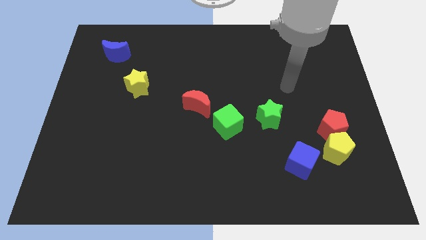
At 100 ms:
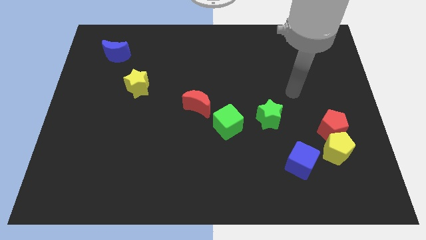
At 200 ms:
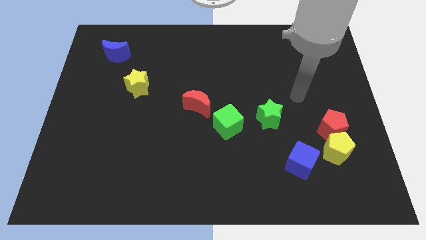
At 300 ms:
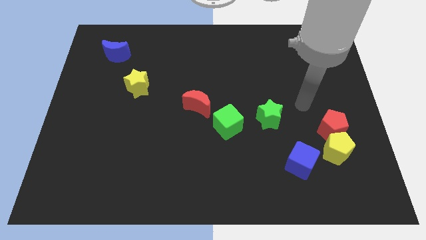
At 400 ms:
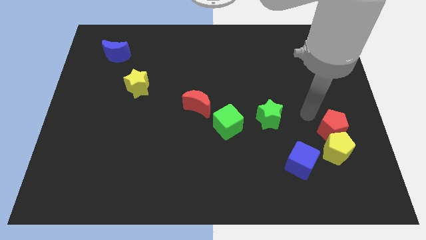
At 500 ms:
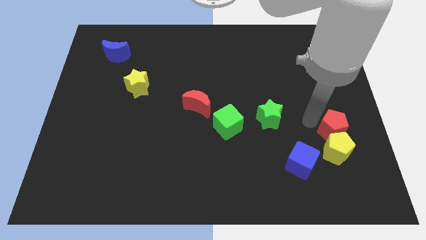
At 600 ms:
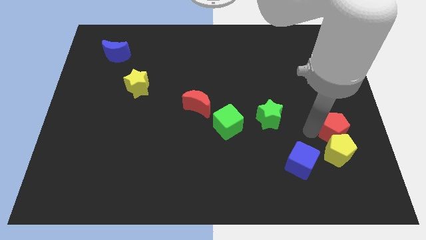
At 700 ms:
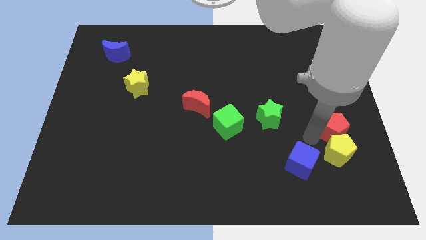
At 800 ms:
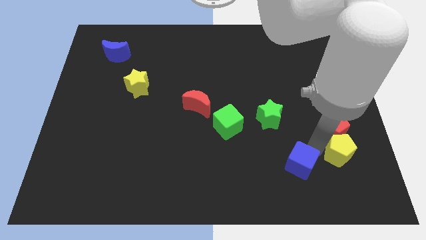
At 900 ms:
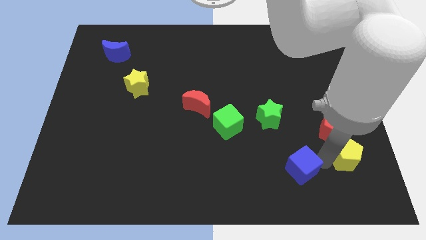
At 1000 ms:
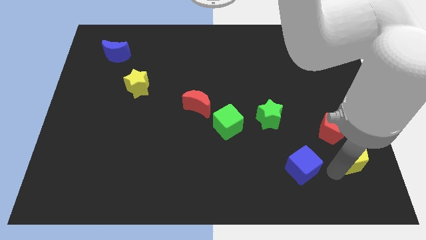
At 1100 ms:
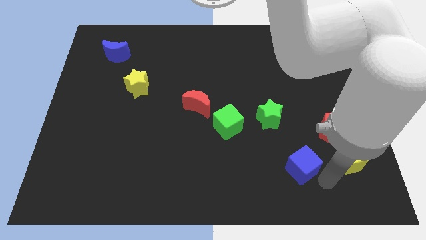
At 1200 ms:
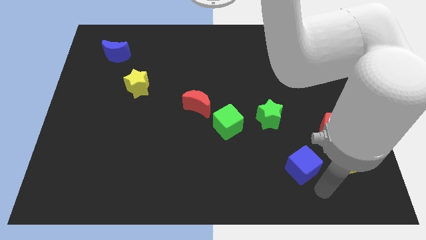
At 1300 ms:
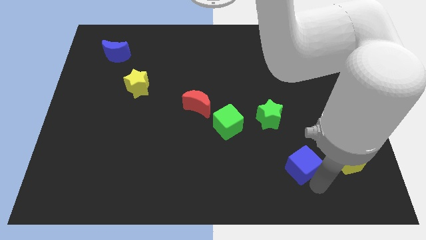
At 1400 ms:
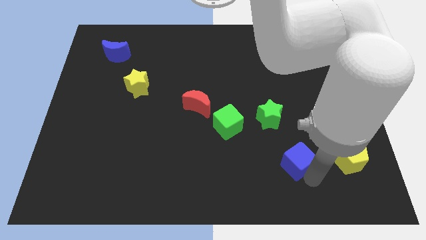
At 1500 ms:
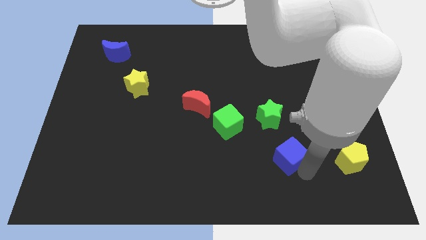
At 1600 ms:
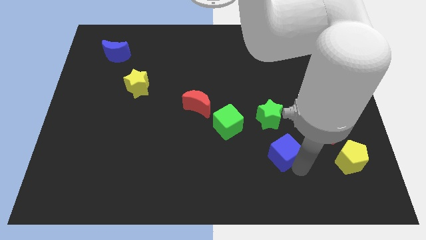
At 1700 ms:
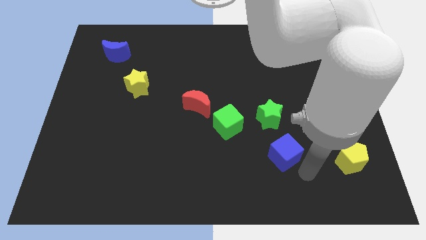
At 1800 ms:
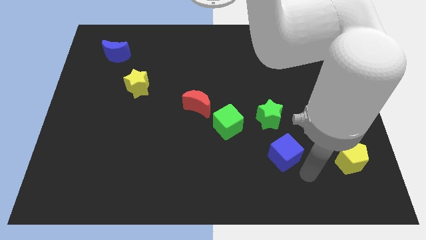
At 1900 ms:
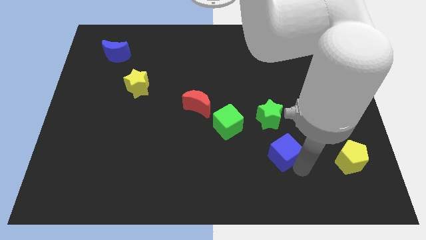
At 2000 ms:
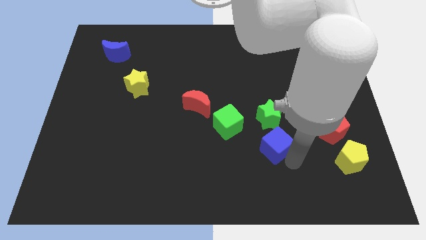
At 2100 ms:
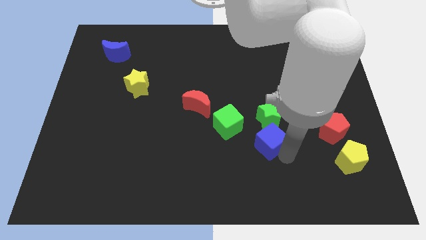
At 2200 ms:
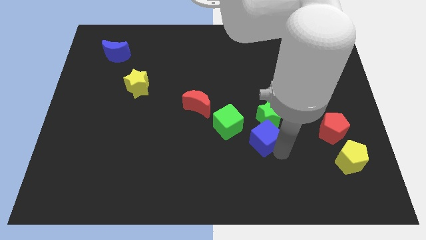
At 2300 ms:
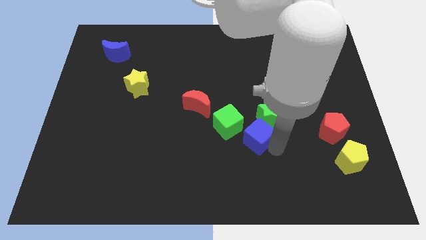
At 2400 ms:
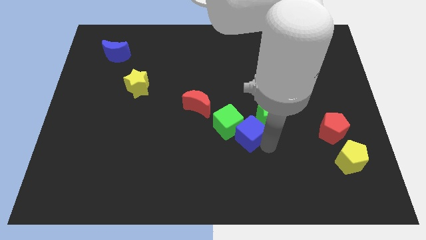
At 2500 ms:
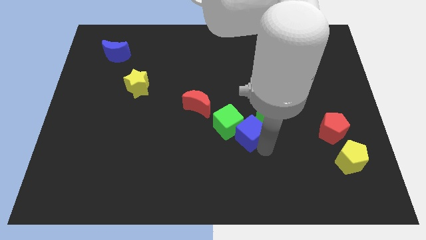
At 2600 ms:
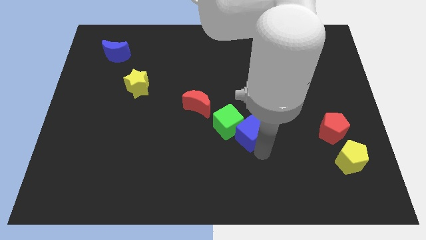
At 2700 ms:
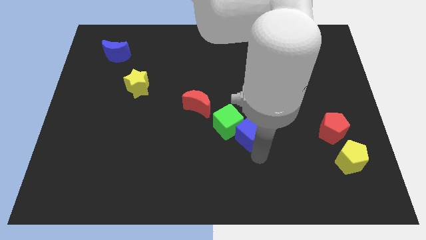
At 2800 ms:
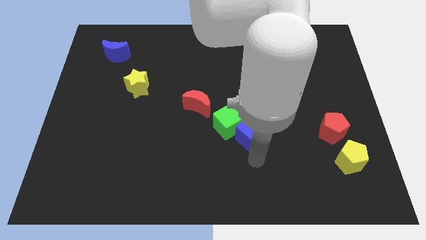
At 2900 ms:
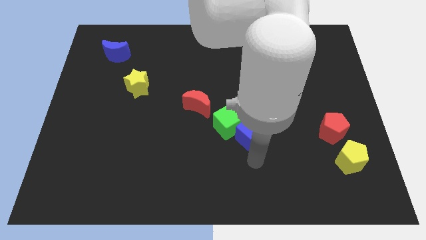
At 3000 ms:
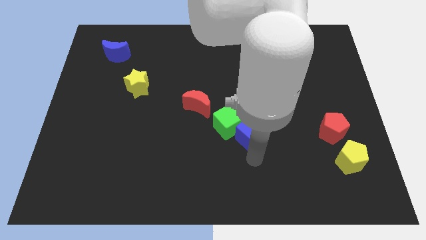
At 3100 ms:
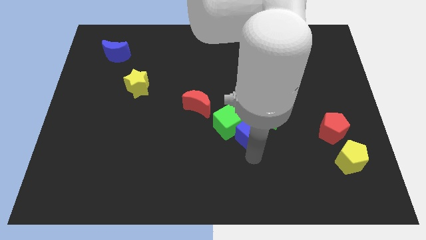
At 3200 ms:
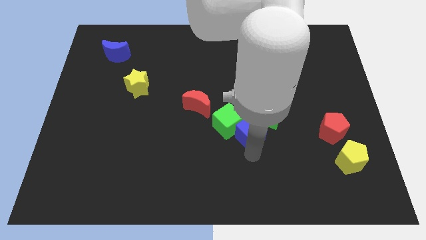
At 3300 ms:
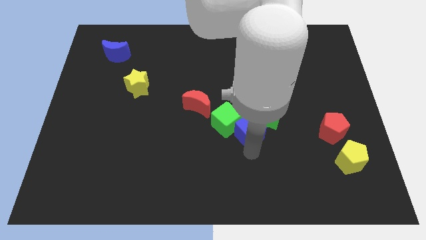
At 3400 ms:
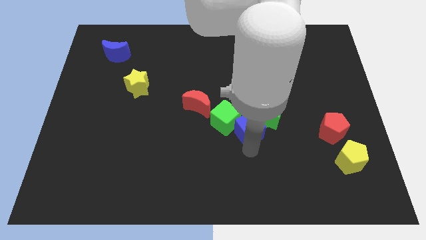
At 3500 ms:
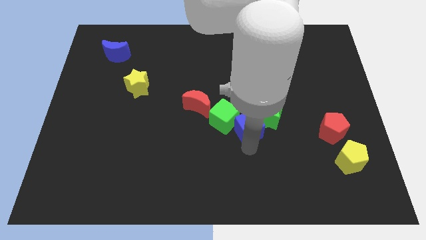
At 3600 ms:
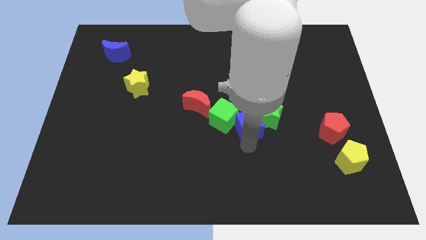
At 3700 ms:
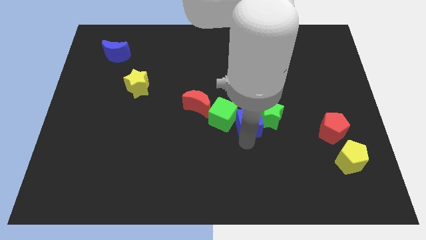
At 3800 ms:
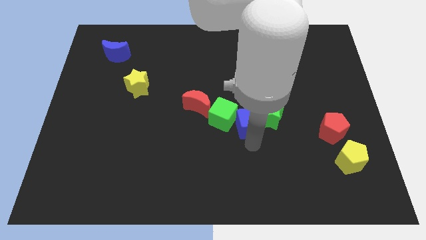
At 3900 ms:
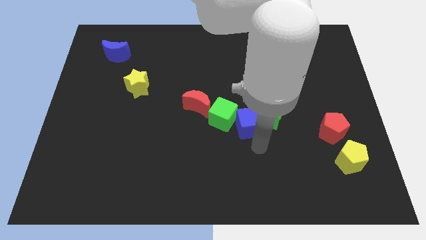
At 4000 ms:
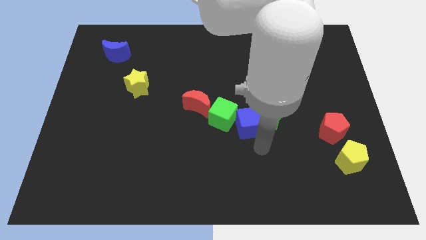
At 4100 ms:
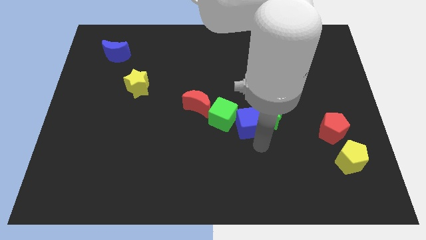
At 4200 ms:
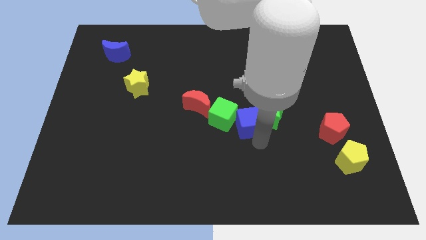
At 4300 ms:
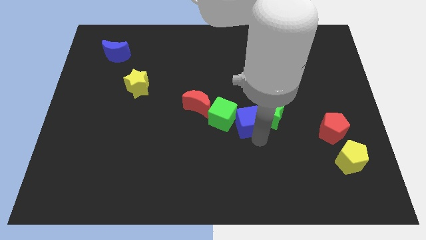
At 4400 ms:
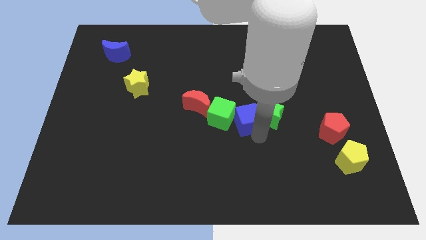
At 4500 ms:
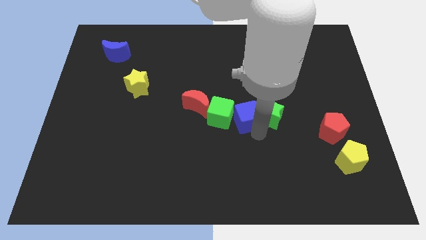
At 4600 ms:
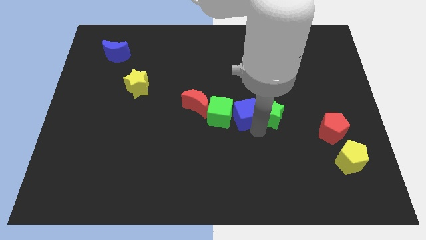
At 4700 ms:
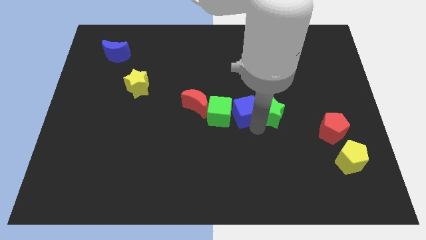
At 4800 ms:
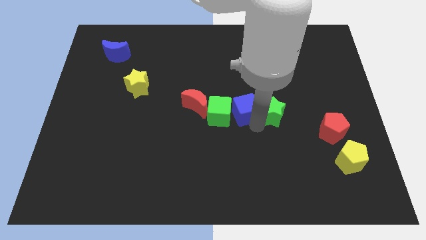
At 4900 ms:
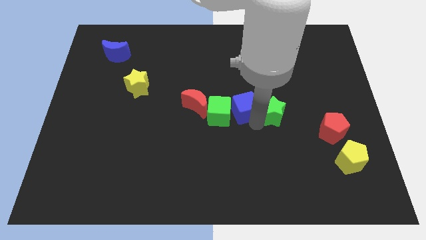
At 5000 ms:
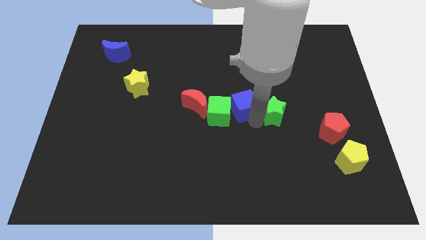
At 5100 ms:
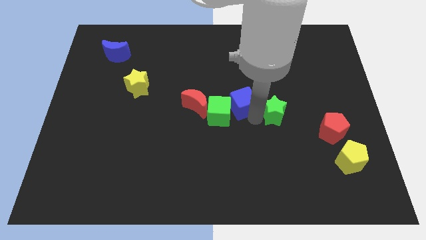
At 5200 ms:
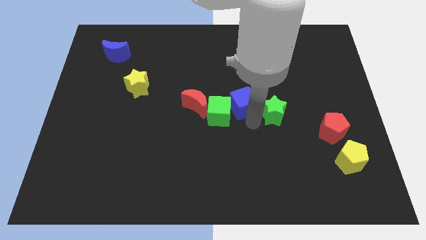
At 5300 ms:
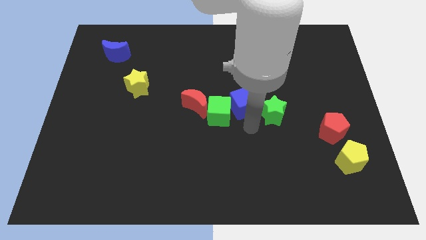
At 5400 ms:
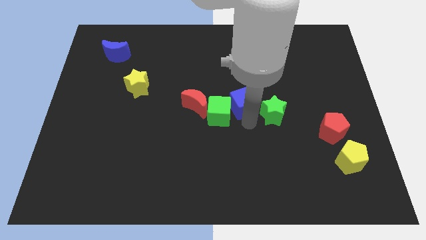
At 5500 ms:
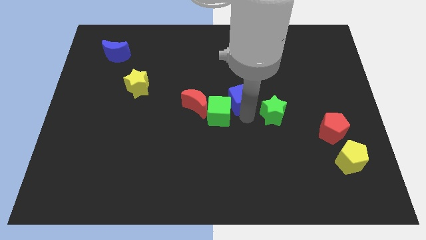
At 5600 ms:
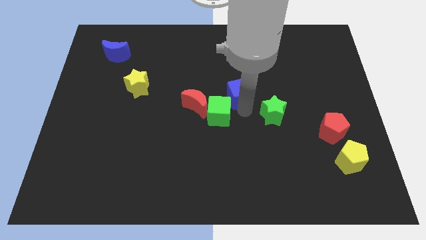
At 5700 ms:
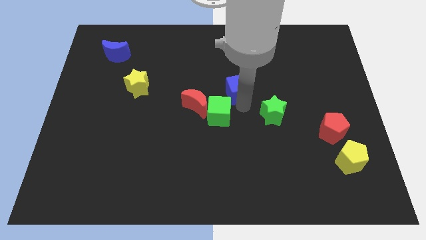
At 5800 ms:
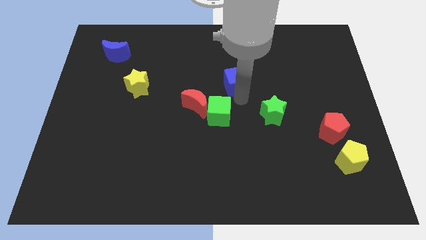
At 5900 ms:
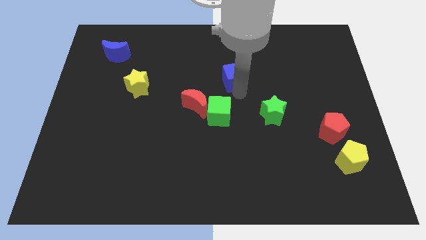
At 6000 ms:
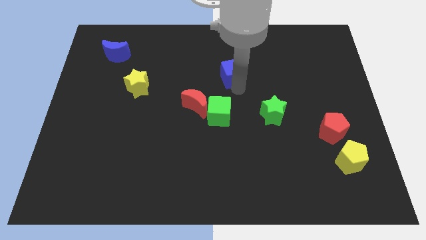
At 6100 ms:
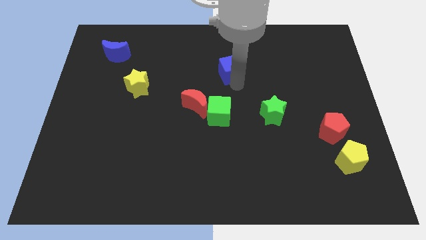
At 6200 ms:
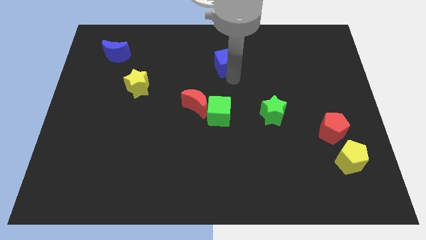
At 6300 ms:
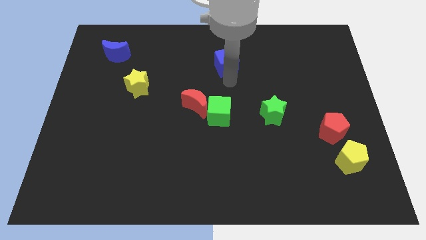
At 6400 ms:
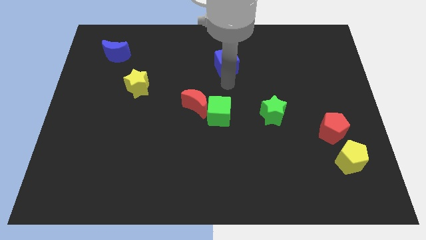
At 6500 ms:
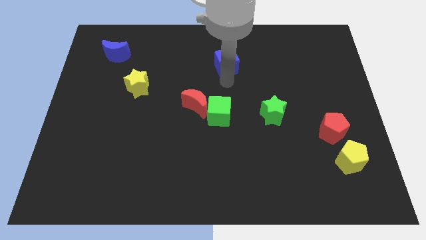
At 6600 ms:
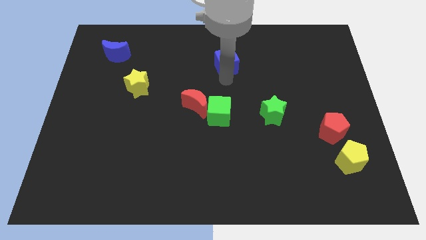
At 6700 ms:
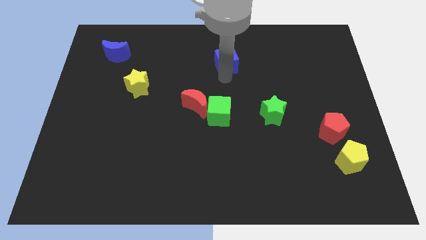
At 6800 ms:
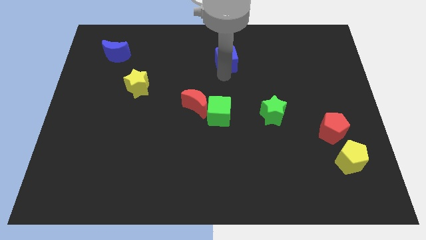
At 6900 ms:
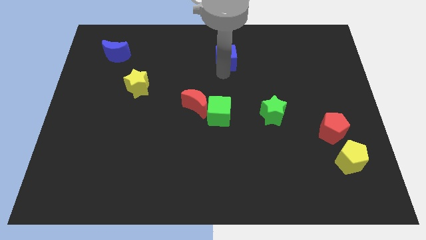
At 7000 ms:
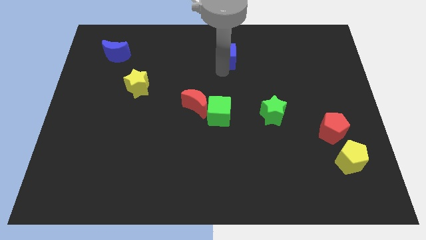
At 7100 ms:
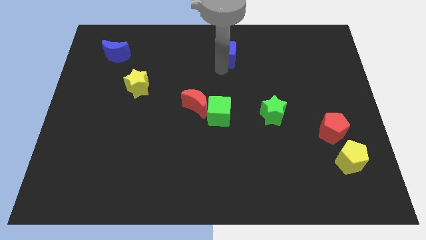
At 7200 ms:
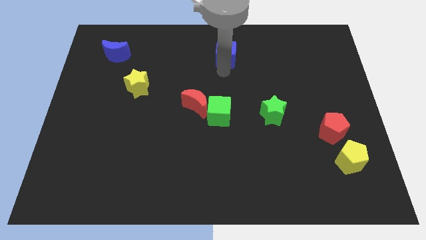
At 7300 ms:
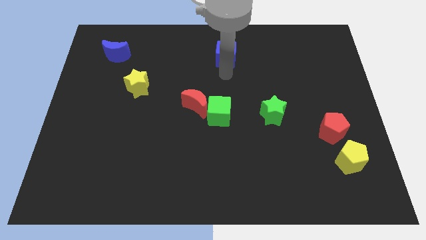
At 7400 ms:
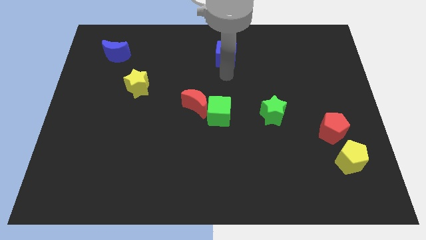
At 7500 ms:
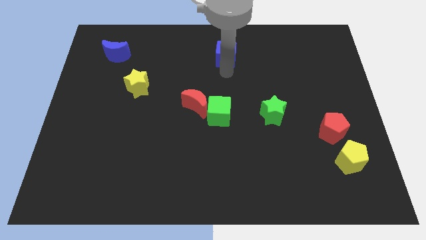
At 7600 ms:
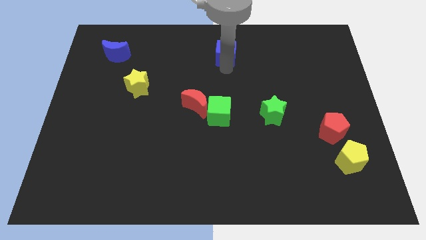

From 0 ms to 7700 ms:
push the blue cube to the towards your base
